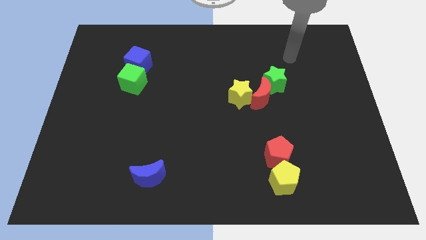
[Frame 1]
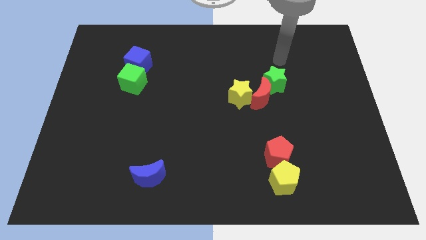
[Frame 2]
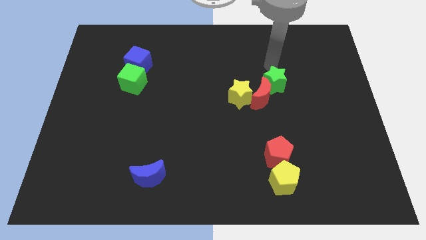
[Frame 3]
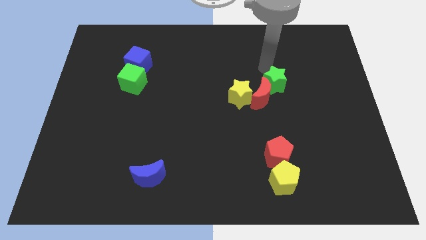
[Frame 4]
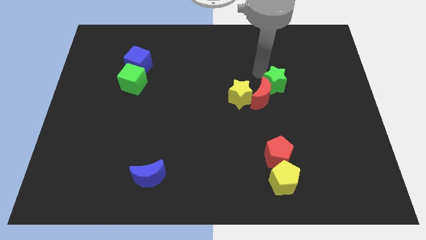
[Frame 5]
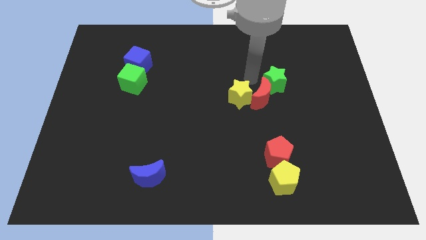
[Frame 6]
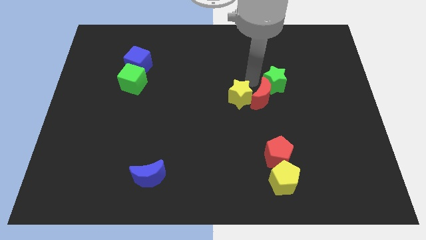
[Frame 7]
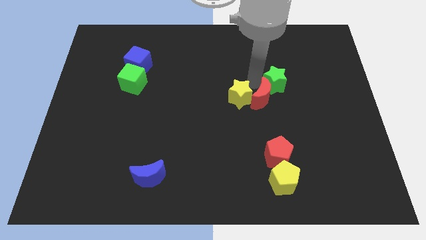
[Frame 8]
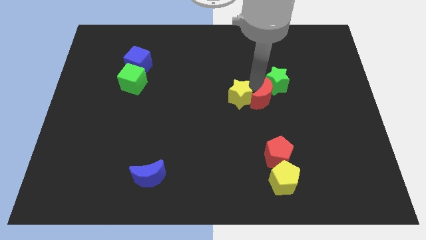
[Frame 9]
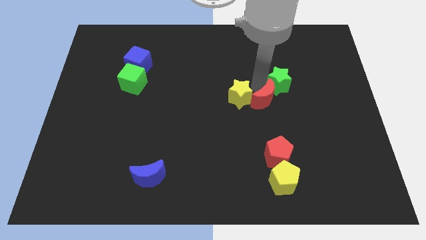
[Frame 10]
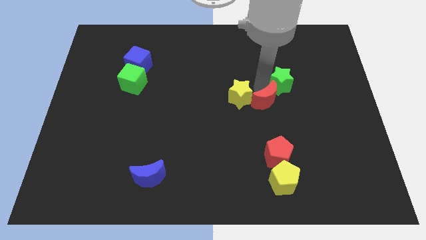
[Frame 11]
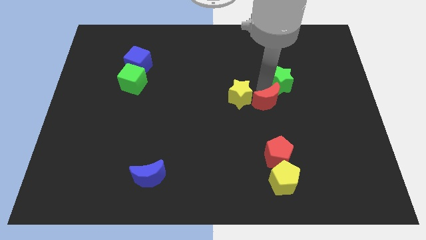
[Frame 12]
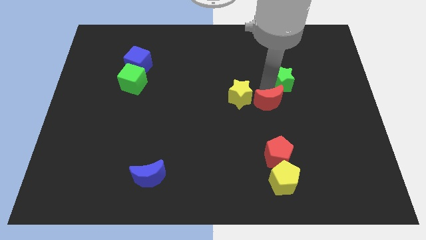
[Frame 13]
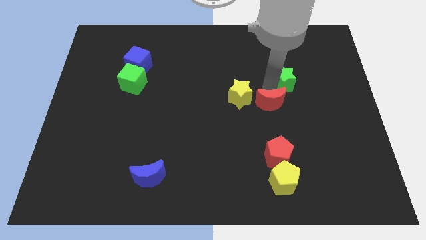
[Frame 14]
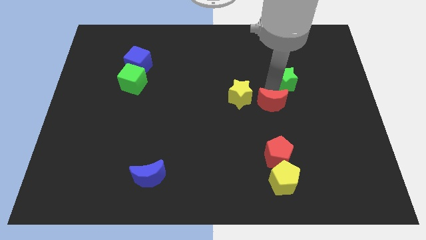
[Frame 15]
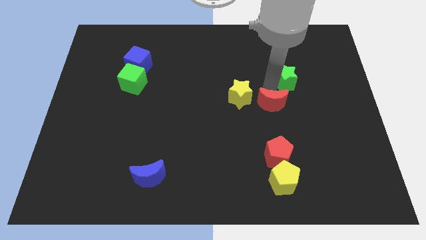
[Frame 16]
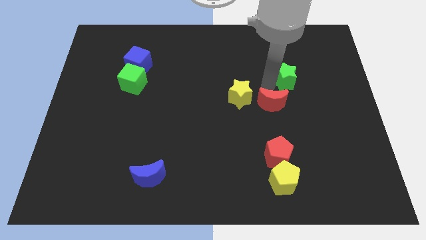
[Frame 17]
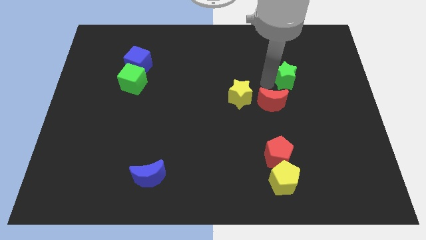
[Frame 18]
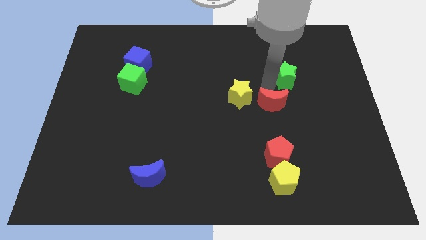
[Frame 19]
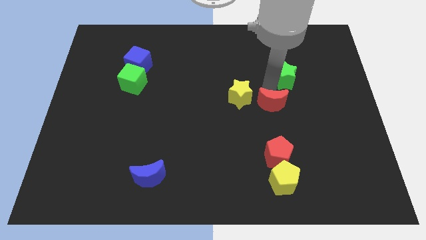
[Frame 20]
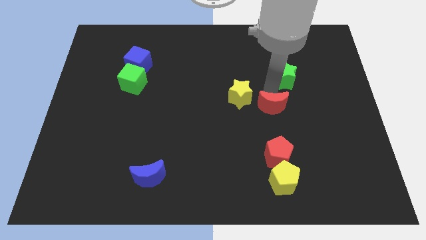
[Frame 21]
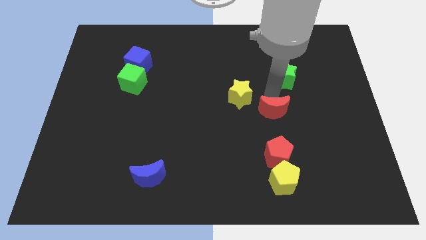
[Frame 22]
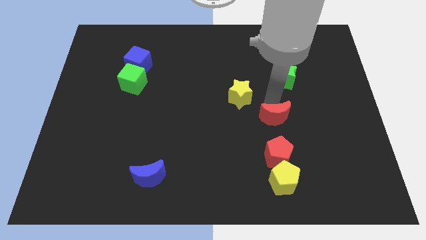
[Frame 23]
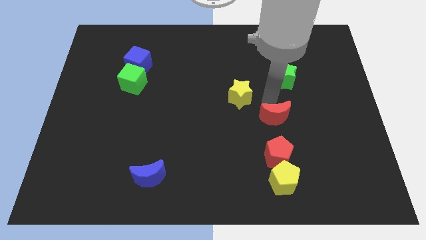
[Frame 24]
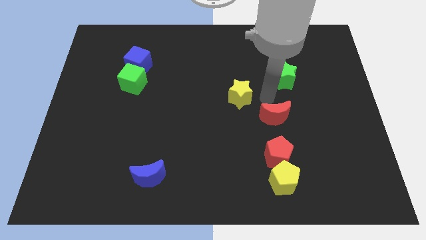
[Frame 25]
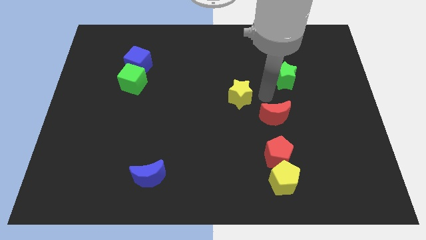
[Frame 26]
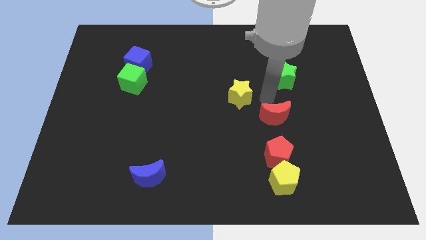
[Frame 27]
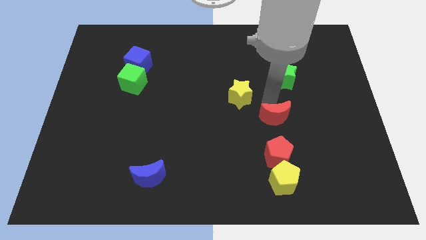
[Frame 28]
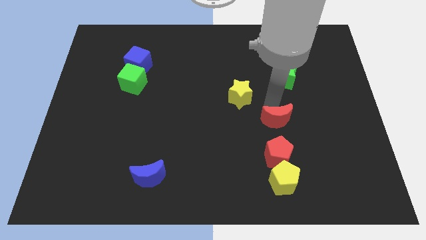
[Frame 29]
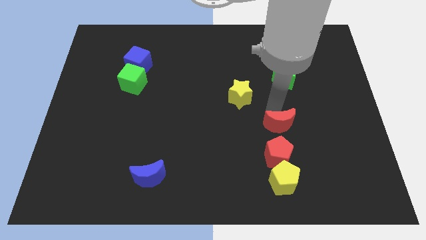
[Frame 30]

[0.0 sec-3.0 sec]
pull the red moon apart from the yellow star and green star

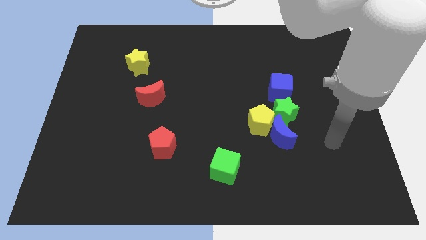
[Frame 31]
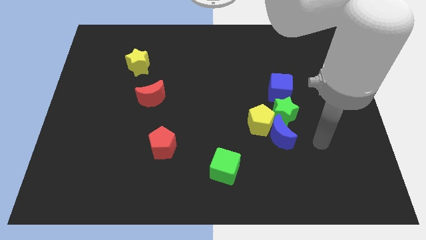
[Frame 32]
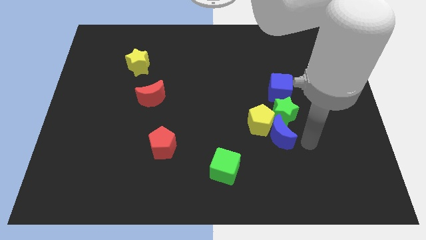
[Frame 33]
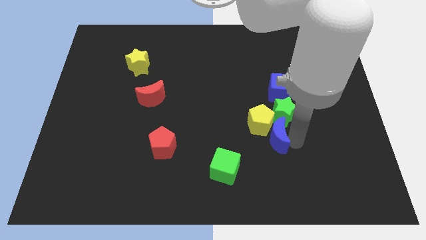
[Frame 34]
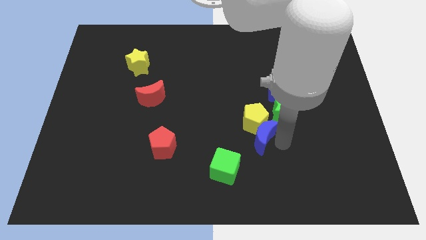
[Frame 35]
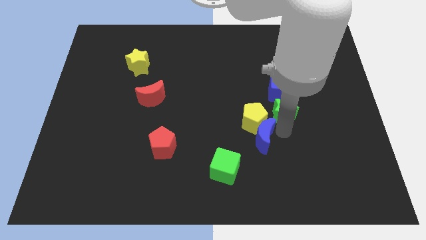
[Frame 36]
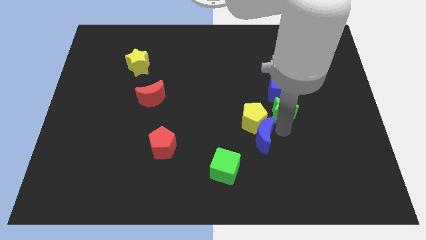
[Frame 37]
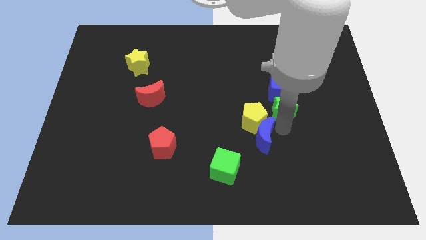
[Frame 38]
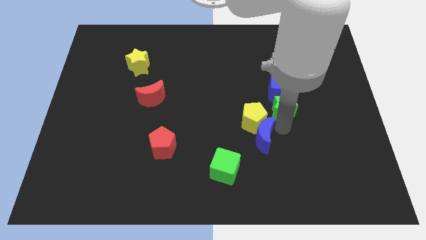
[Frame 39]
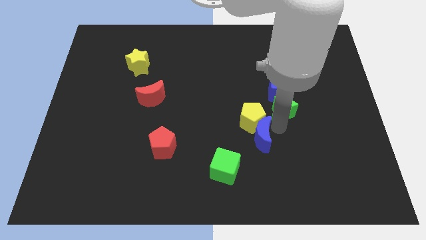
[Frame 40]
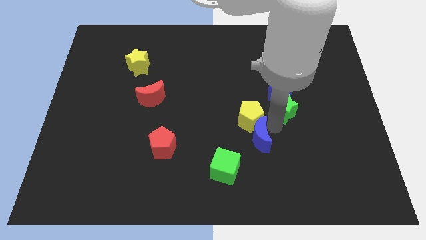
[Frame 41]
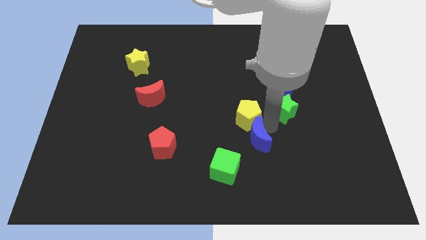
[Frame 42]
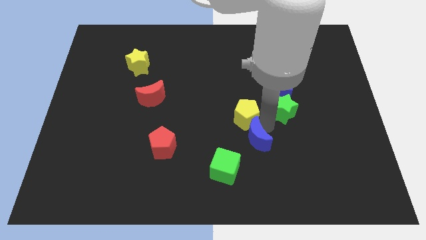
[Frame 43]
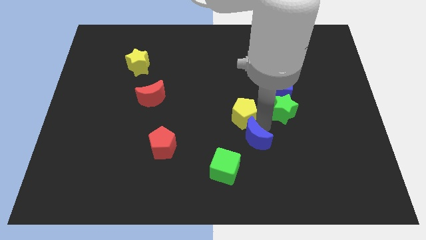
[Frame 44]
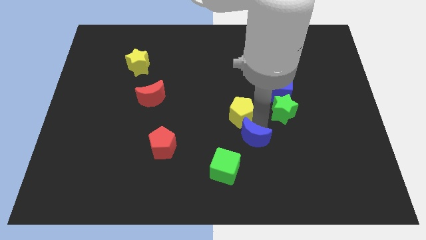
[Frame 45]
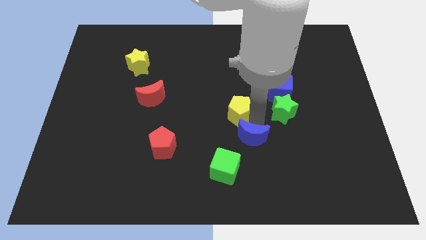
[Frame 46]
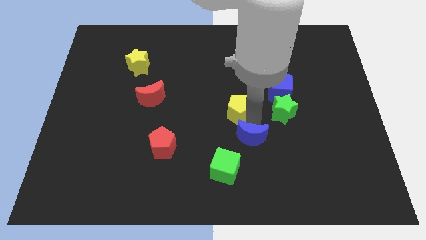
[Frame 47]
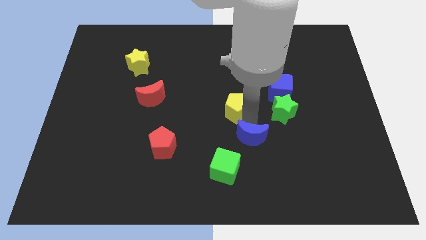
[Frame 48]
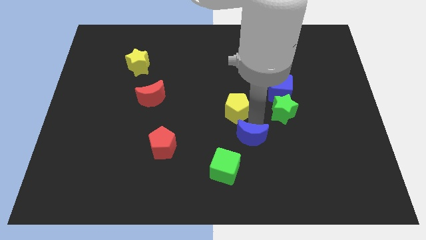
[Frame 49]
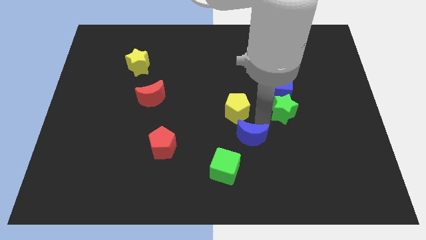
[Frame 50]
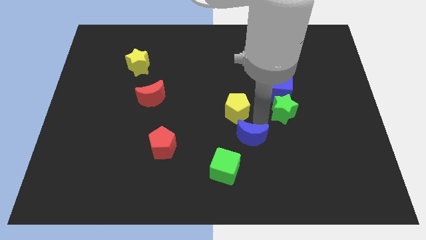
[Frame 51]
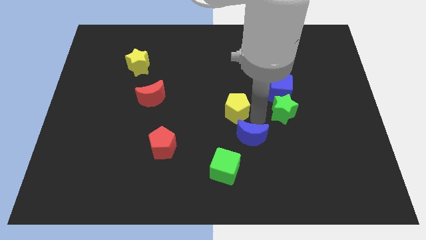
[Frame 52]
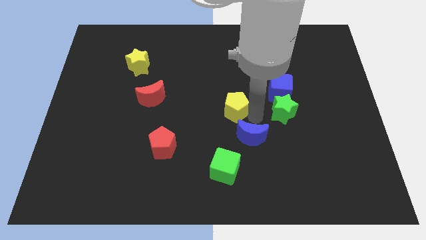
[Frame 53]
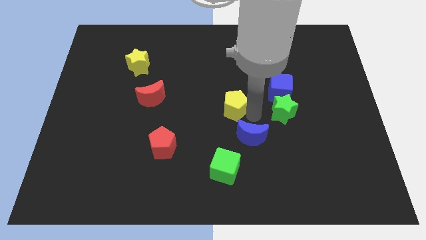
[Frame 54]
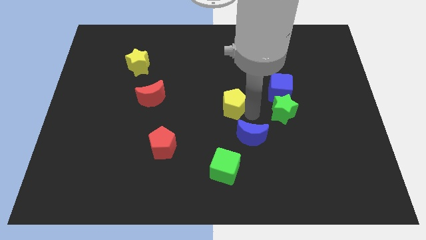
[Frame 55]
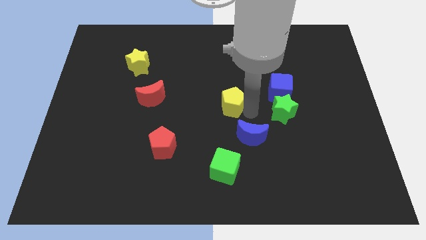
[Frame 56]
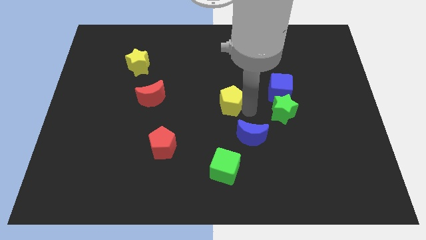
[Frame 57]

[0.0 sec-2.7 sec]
separate the yellow pentagon from the blue moon and green star

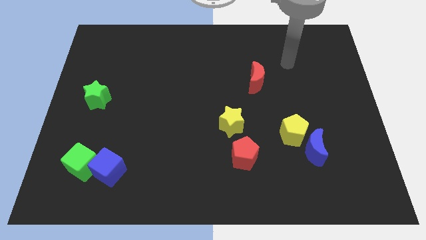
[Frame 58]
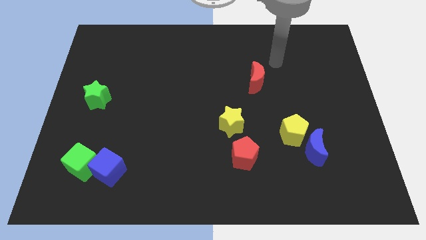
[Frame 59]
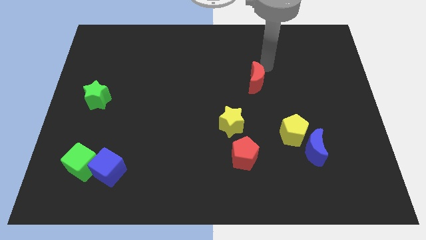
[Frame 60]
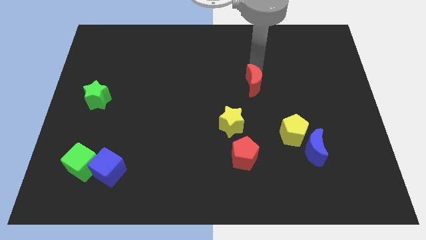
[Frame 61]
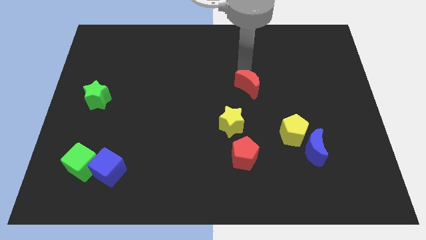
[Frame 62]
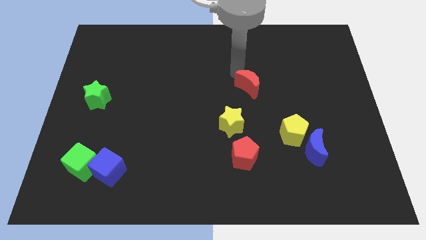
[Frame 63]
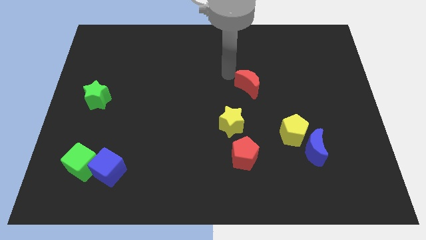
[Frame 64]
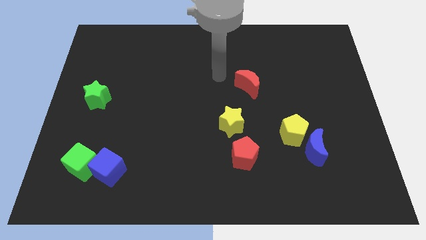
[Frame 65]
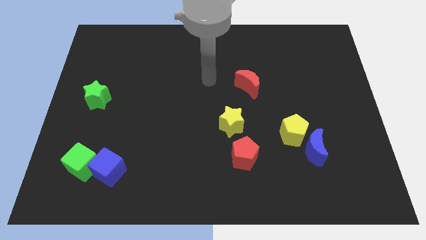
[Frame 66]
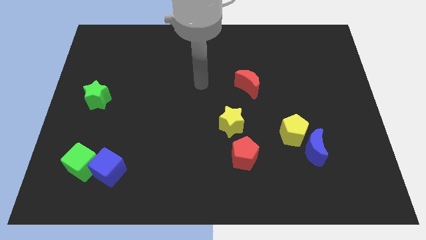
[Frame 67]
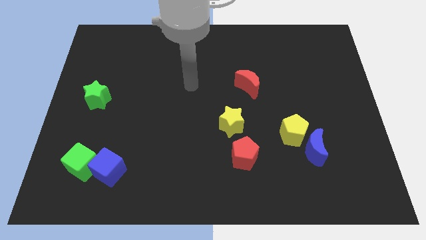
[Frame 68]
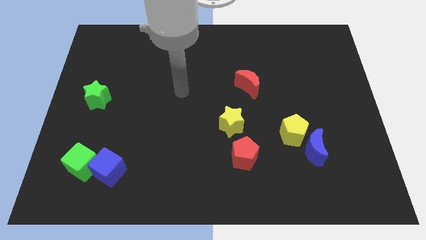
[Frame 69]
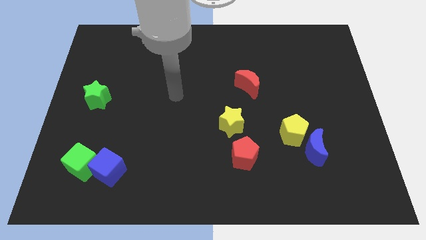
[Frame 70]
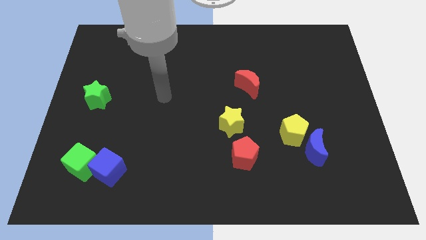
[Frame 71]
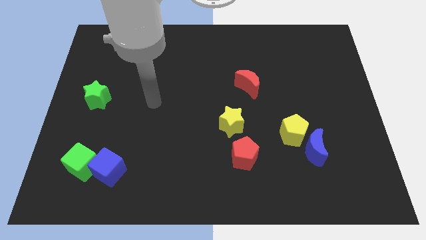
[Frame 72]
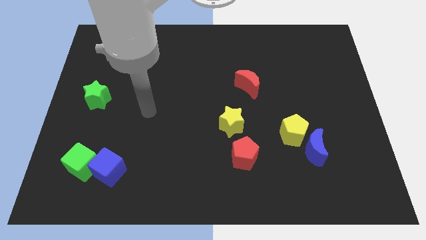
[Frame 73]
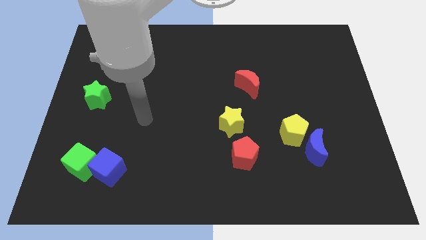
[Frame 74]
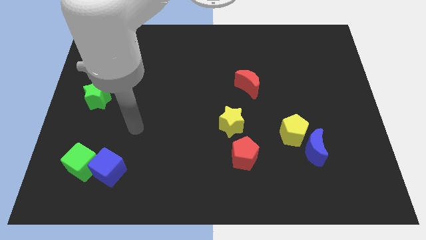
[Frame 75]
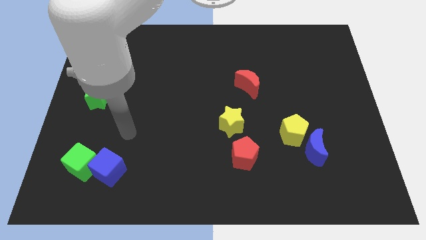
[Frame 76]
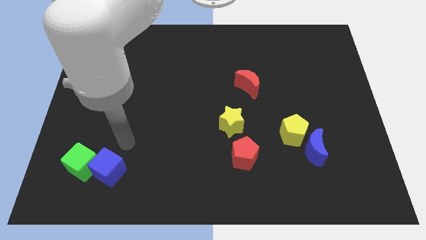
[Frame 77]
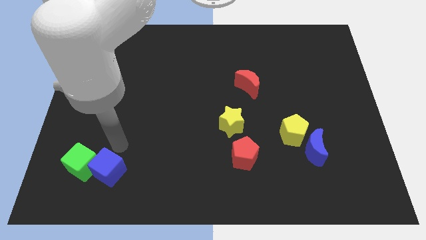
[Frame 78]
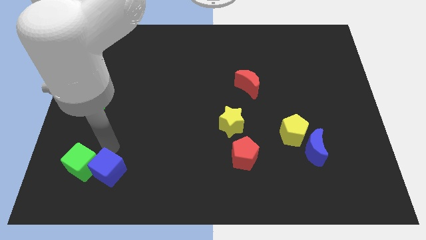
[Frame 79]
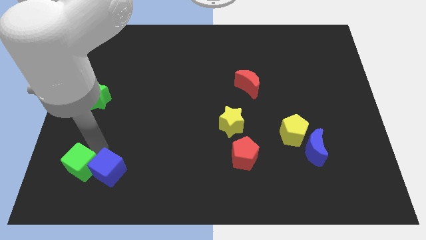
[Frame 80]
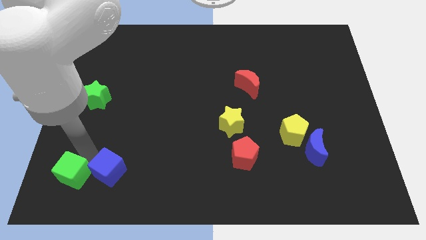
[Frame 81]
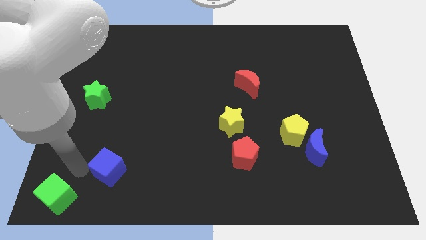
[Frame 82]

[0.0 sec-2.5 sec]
separate the blue cube from the green cube

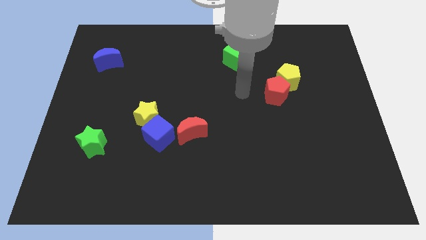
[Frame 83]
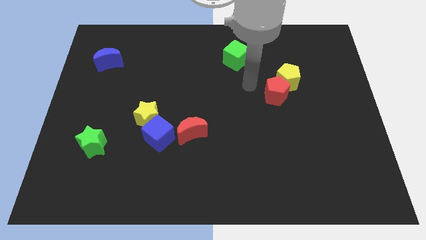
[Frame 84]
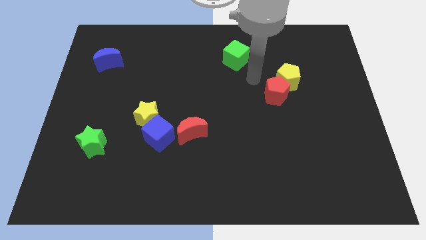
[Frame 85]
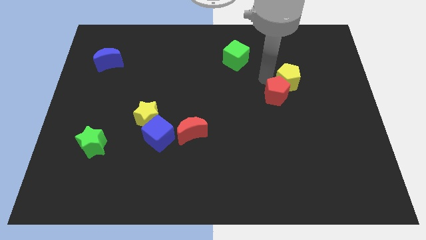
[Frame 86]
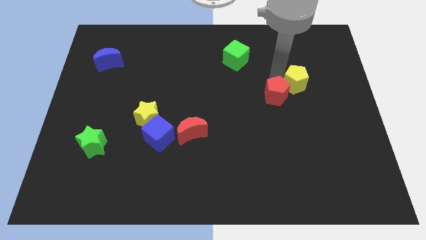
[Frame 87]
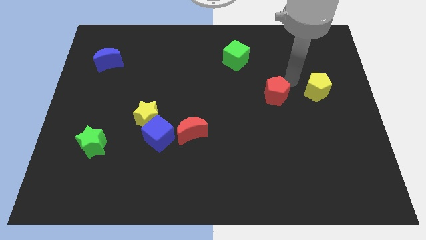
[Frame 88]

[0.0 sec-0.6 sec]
move the red pentagon away from the yellow pentagon

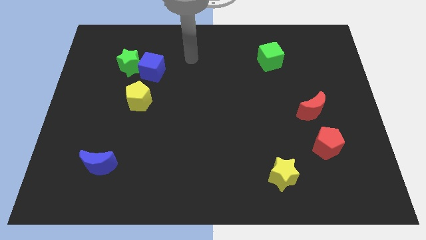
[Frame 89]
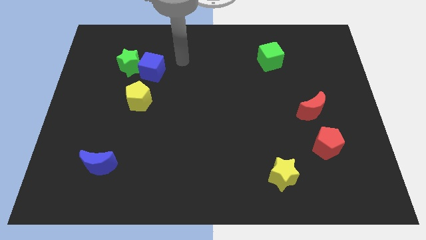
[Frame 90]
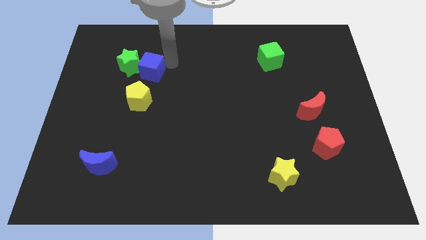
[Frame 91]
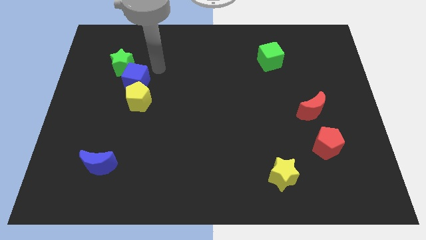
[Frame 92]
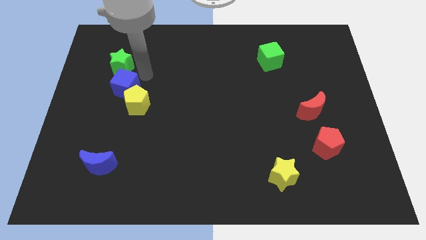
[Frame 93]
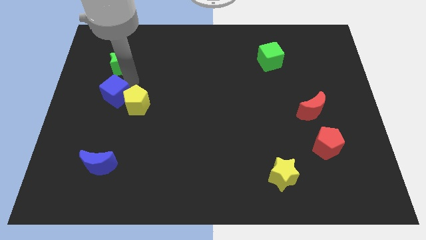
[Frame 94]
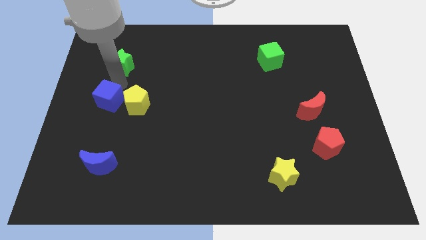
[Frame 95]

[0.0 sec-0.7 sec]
separate the green star from the blue cube

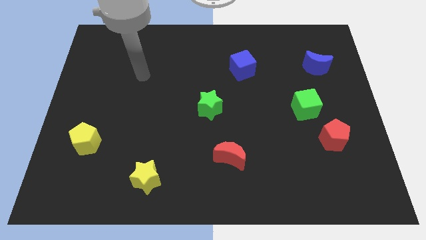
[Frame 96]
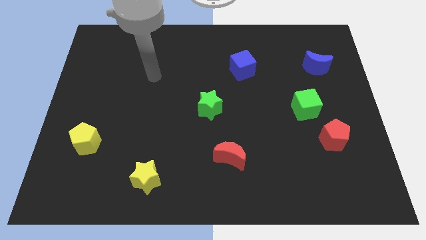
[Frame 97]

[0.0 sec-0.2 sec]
move the red pentagon away from the green cube
